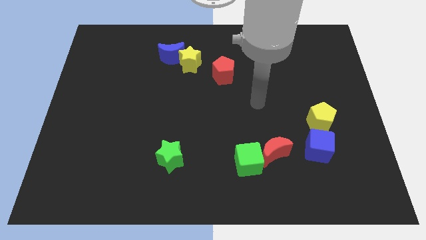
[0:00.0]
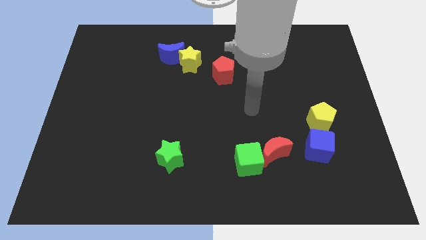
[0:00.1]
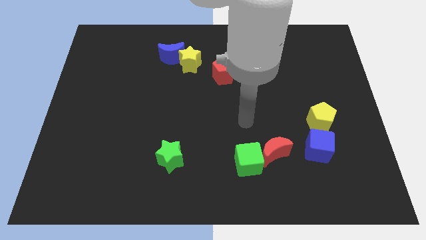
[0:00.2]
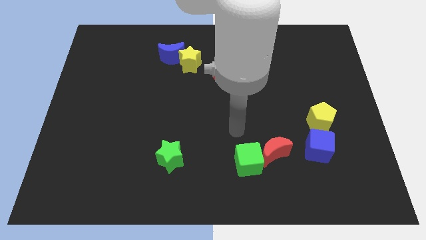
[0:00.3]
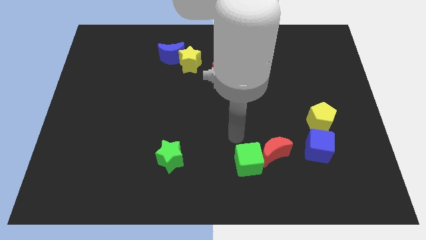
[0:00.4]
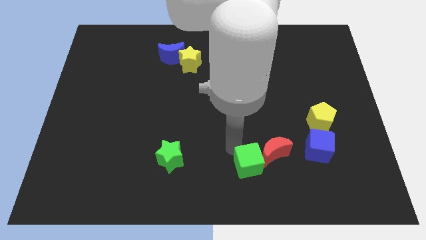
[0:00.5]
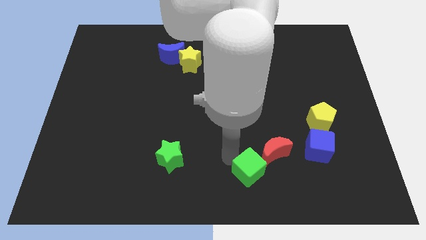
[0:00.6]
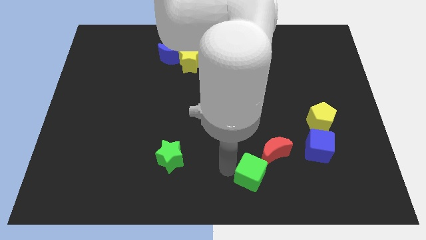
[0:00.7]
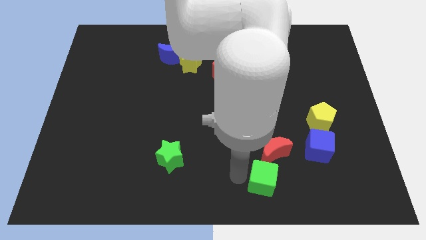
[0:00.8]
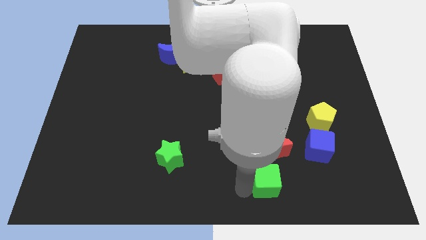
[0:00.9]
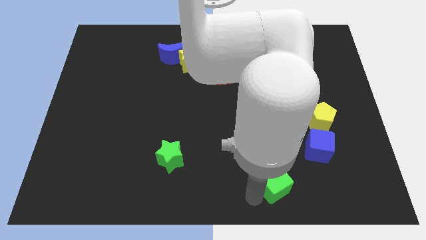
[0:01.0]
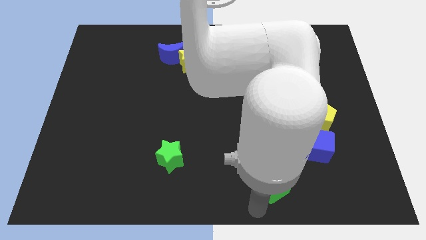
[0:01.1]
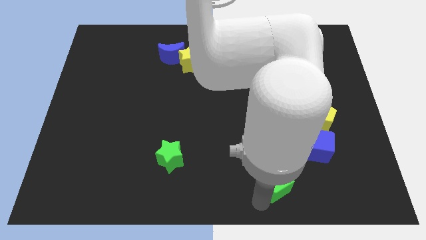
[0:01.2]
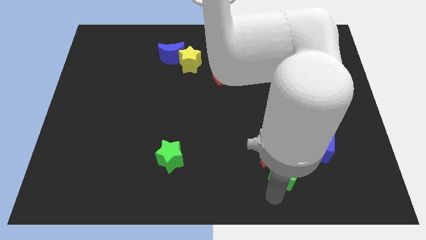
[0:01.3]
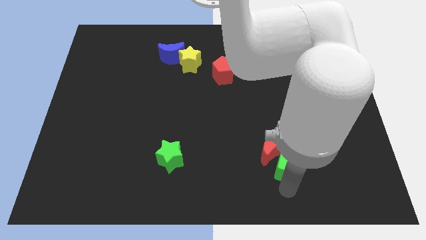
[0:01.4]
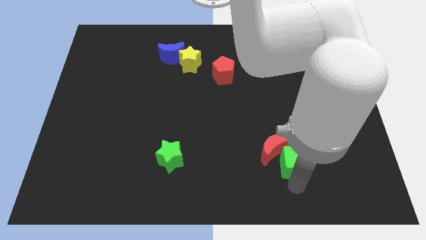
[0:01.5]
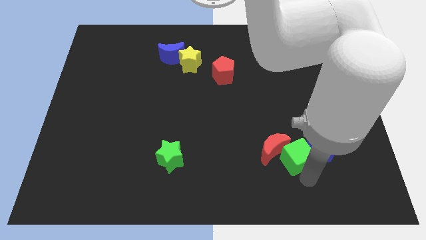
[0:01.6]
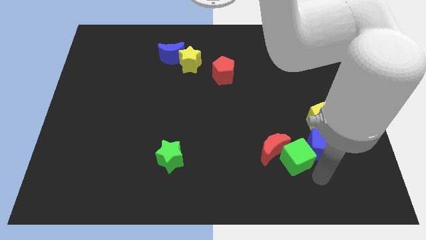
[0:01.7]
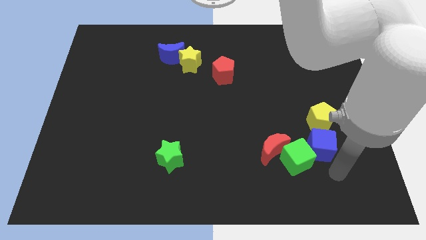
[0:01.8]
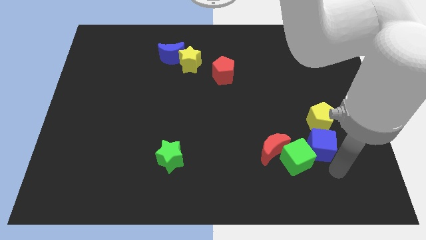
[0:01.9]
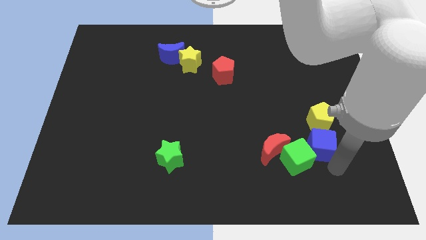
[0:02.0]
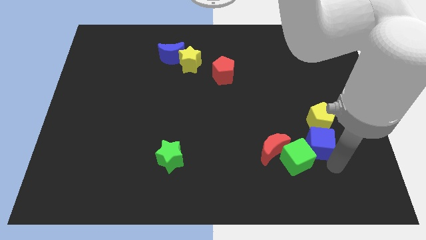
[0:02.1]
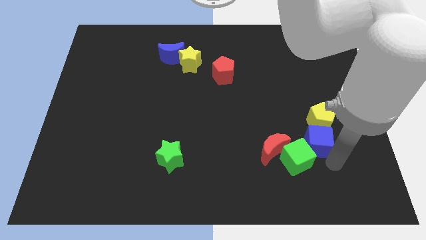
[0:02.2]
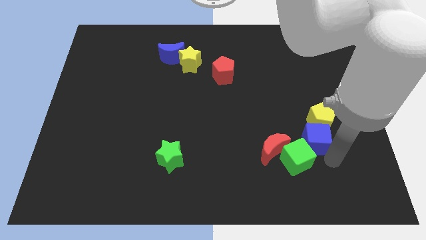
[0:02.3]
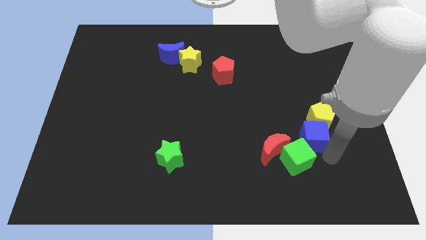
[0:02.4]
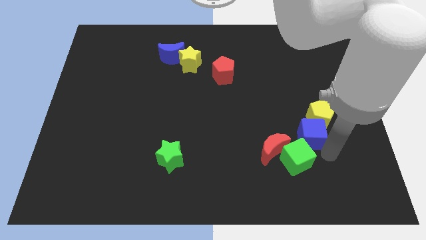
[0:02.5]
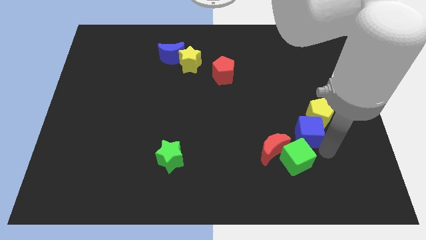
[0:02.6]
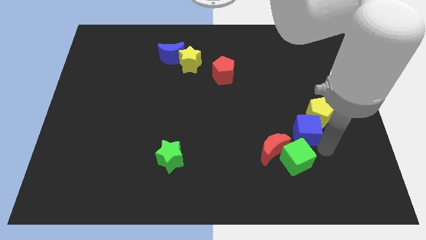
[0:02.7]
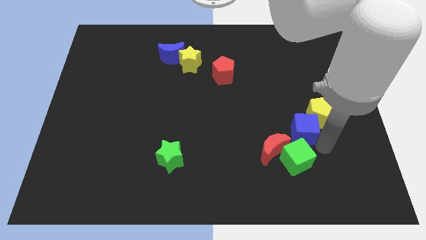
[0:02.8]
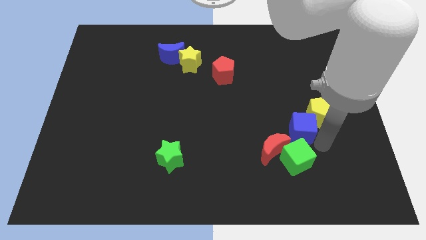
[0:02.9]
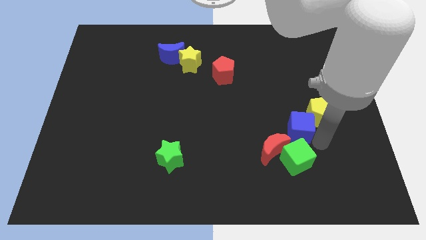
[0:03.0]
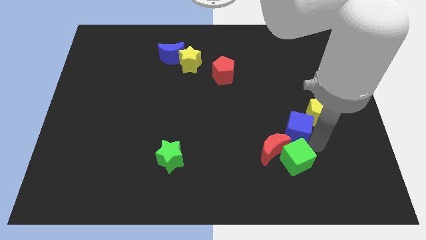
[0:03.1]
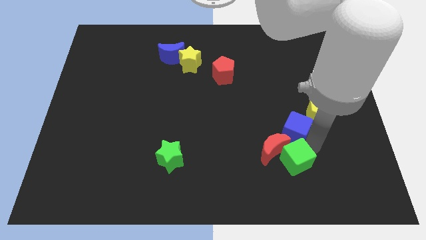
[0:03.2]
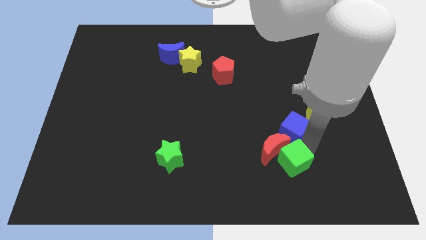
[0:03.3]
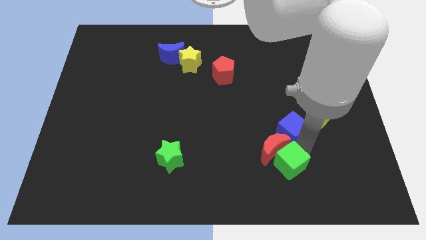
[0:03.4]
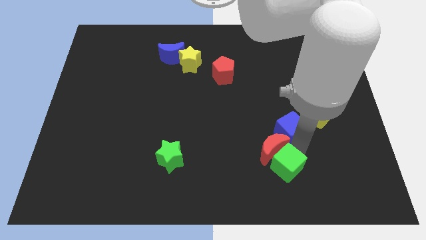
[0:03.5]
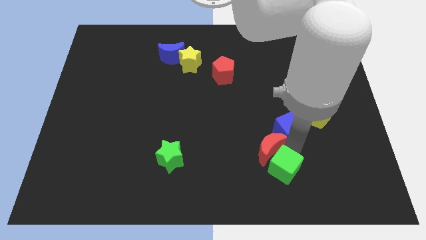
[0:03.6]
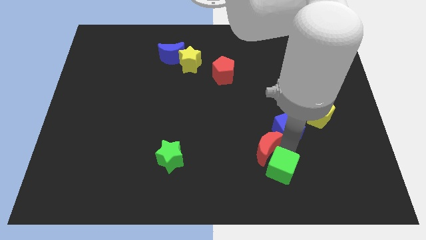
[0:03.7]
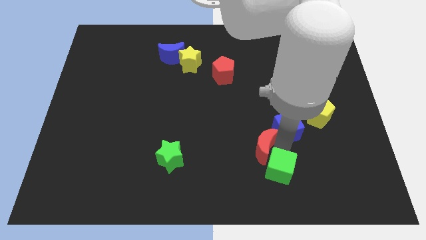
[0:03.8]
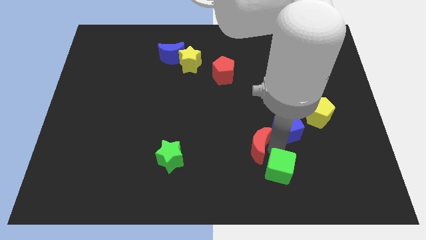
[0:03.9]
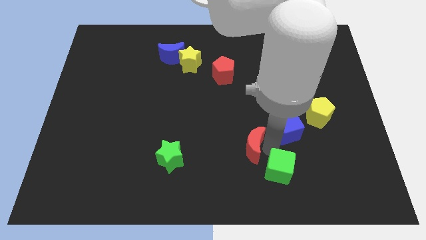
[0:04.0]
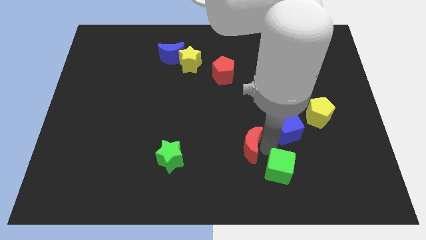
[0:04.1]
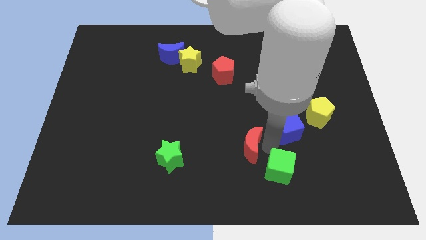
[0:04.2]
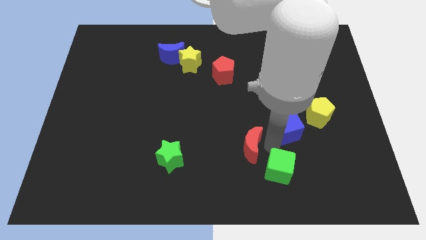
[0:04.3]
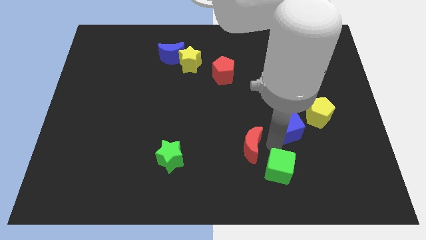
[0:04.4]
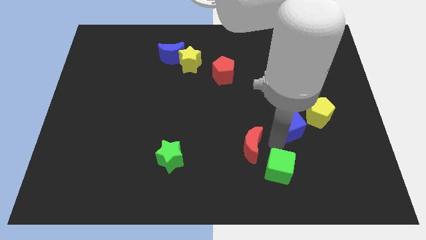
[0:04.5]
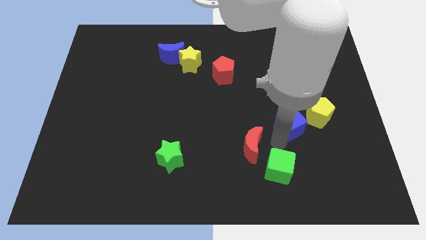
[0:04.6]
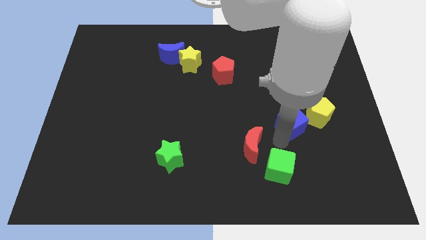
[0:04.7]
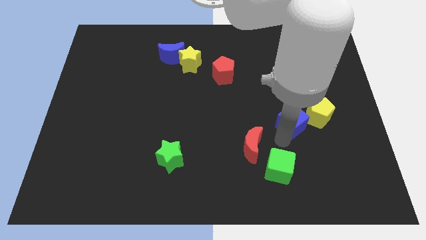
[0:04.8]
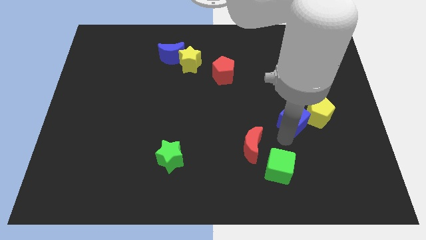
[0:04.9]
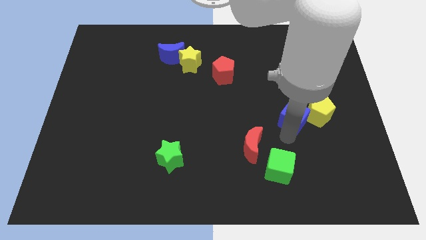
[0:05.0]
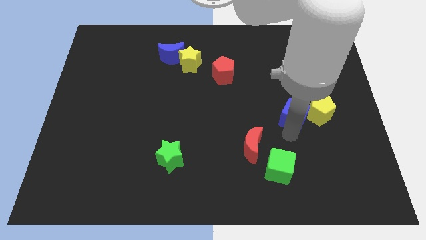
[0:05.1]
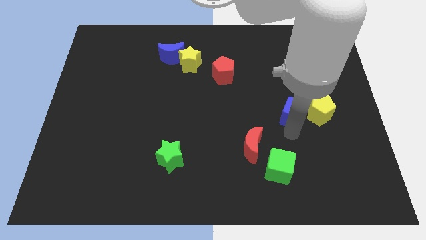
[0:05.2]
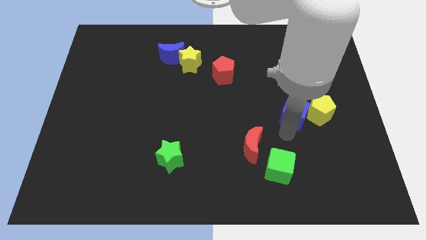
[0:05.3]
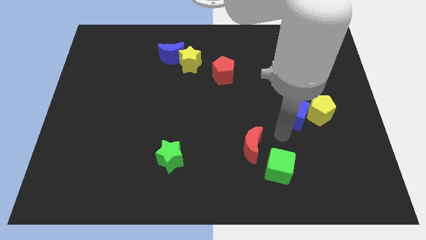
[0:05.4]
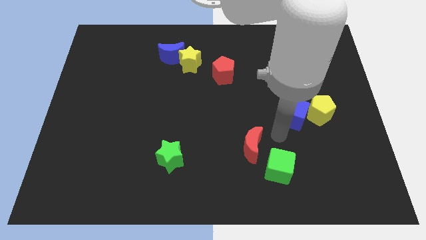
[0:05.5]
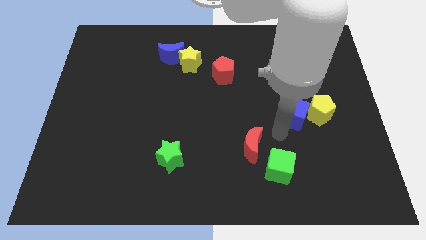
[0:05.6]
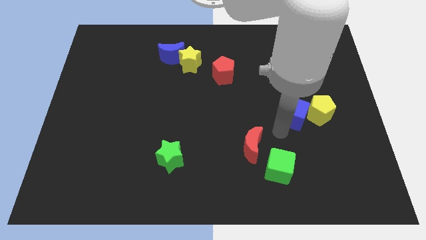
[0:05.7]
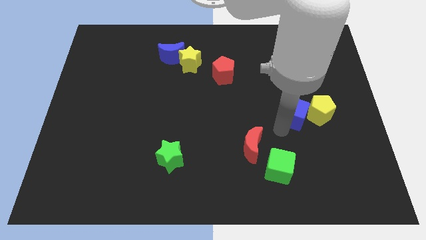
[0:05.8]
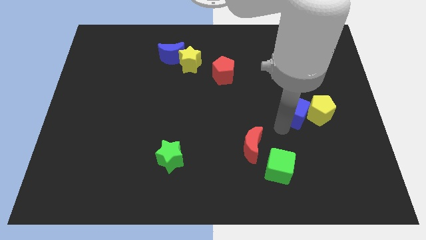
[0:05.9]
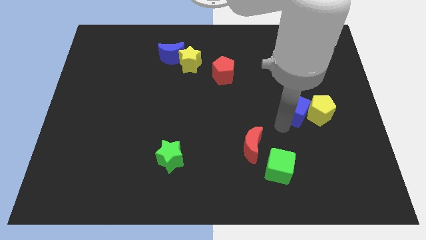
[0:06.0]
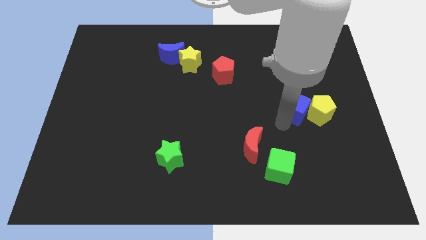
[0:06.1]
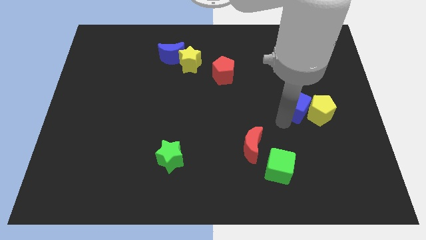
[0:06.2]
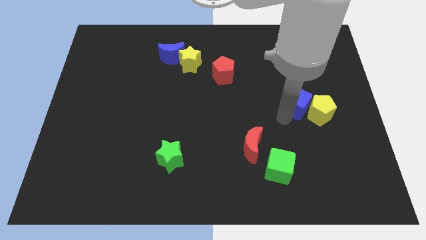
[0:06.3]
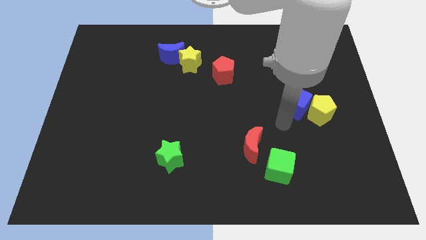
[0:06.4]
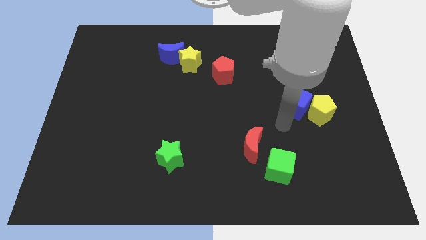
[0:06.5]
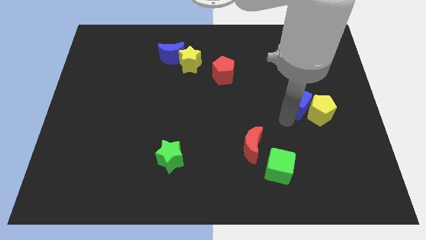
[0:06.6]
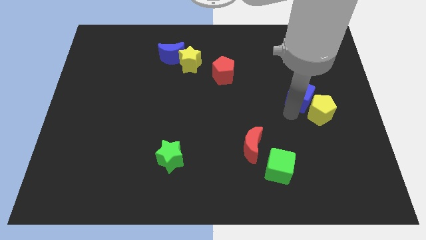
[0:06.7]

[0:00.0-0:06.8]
slide the blue cube to the top of the yellow pentagon

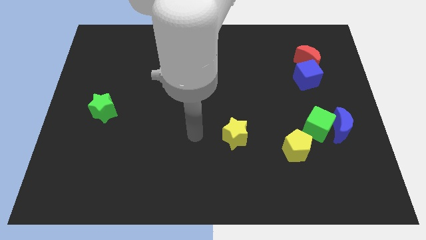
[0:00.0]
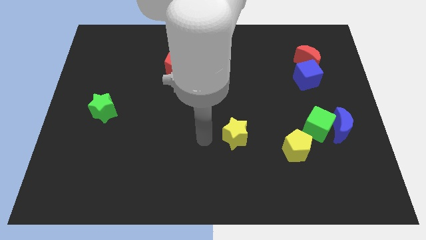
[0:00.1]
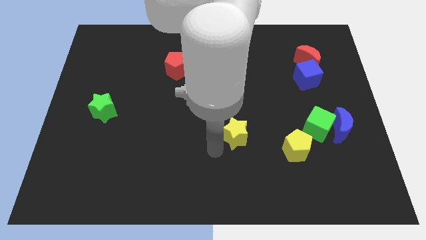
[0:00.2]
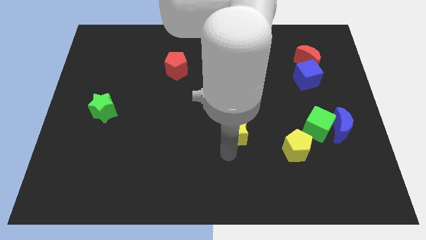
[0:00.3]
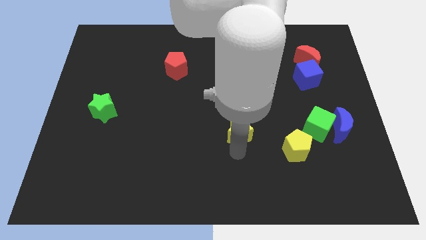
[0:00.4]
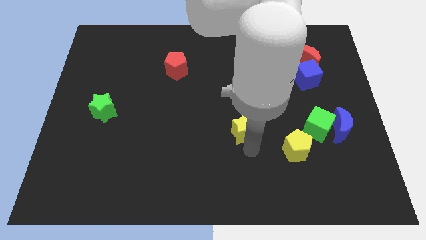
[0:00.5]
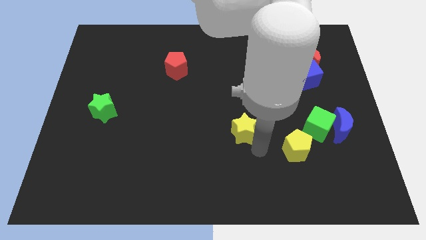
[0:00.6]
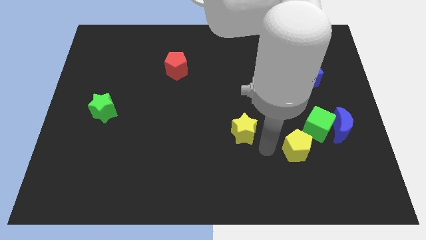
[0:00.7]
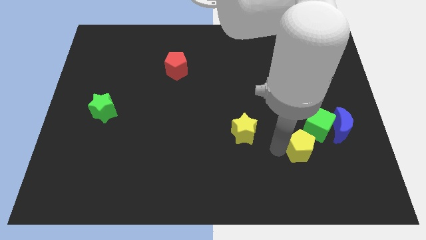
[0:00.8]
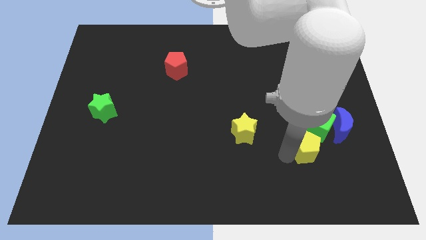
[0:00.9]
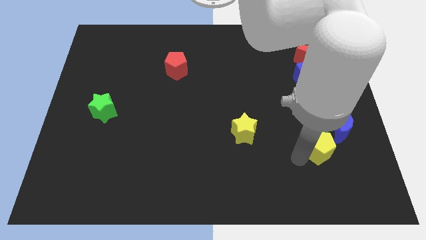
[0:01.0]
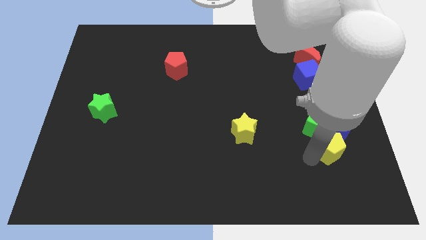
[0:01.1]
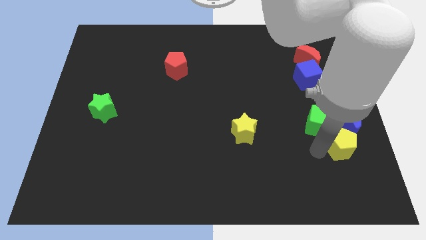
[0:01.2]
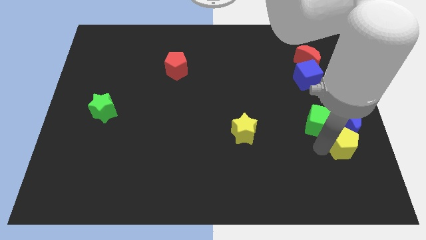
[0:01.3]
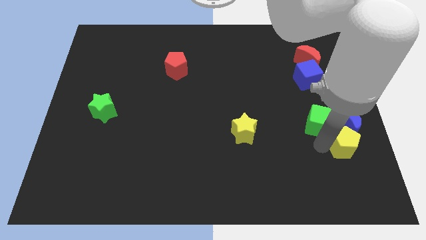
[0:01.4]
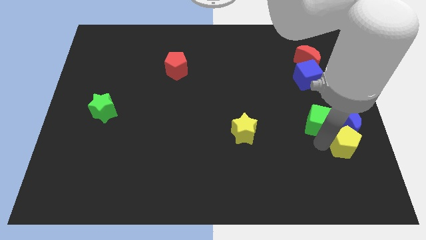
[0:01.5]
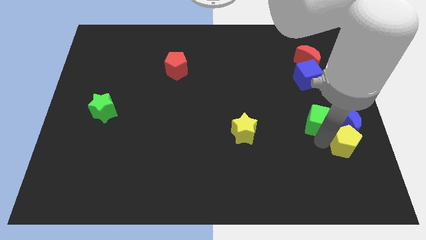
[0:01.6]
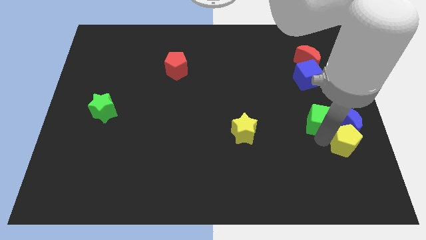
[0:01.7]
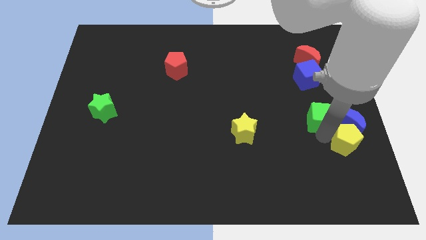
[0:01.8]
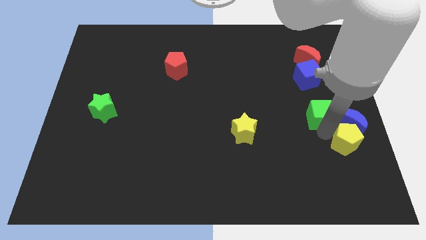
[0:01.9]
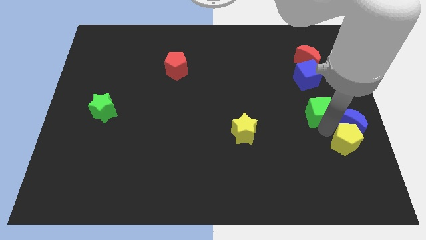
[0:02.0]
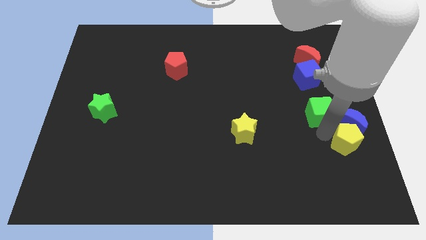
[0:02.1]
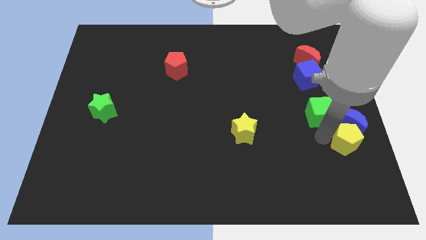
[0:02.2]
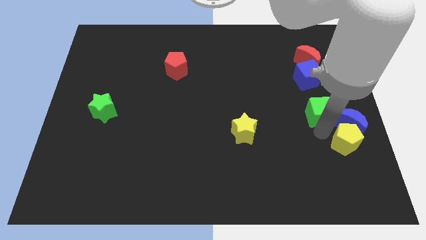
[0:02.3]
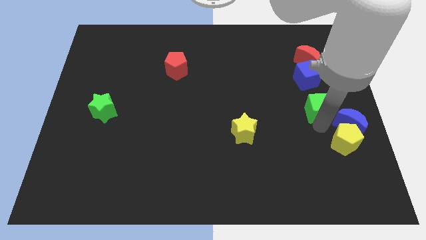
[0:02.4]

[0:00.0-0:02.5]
slide the green cube to the bottom side of the red moon
